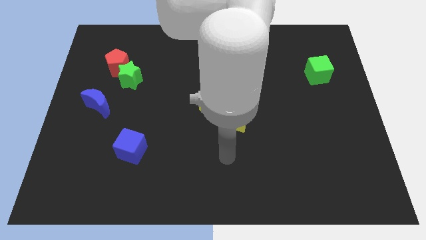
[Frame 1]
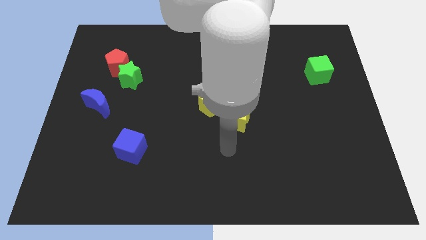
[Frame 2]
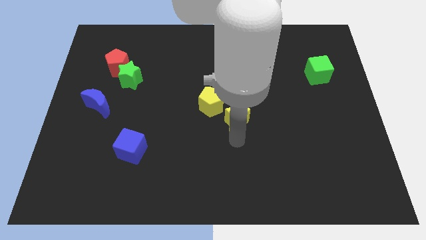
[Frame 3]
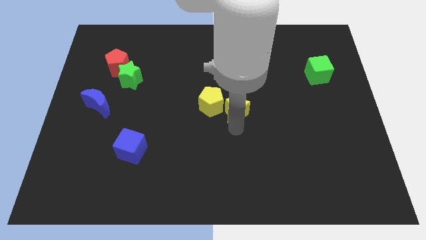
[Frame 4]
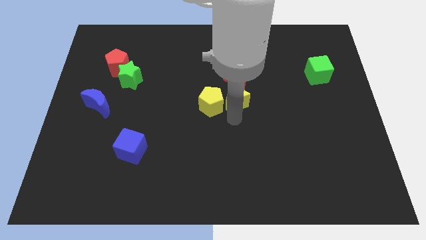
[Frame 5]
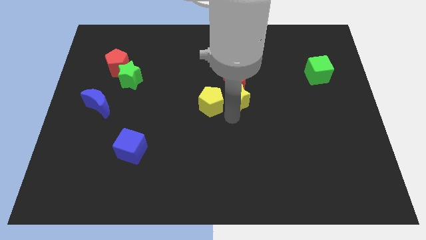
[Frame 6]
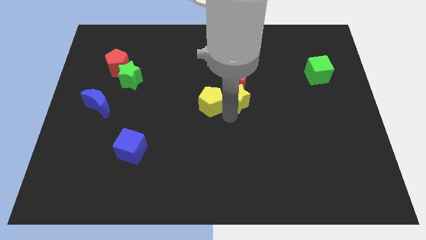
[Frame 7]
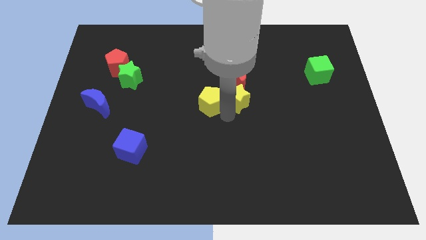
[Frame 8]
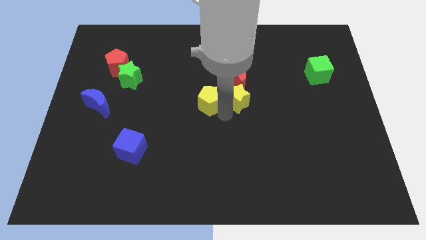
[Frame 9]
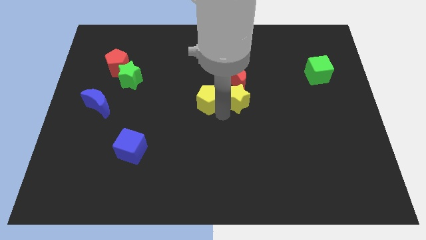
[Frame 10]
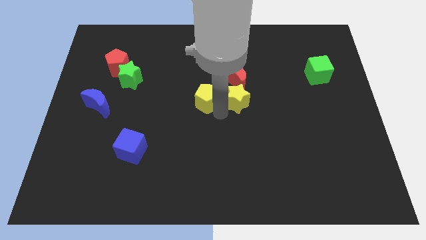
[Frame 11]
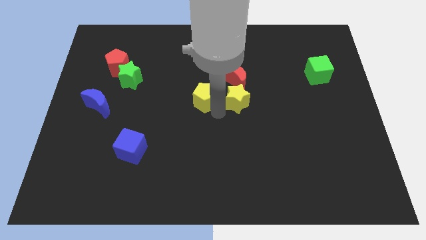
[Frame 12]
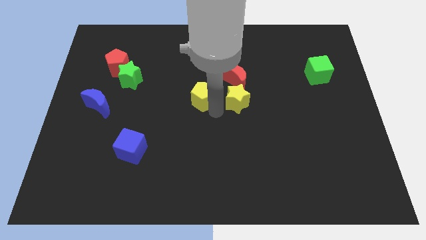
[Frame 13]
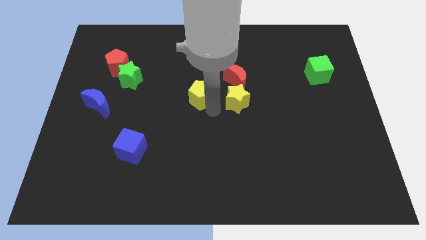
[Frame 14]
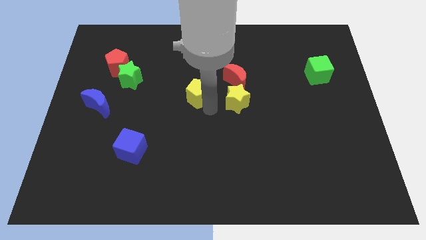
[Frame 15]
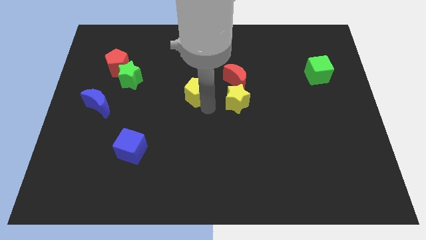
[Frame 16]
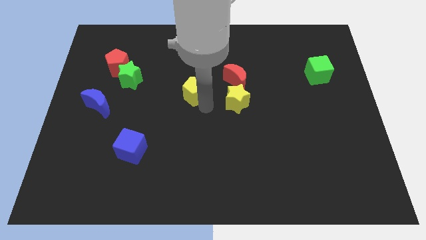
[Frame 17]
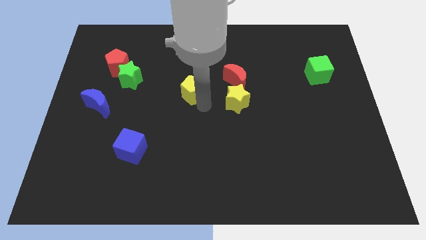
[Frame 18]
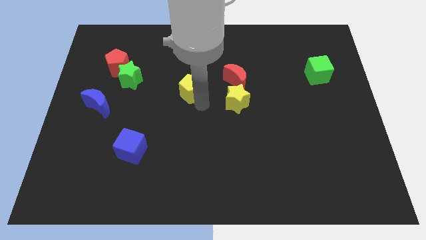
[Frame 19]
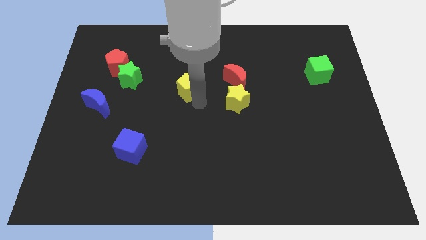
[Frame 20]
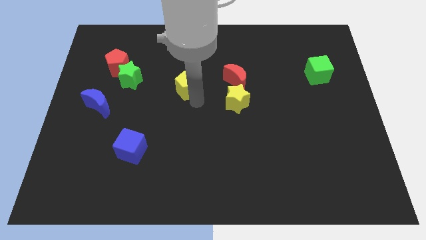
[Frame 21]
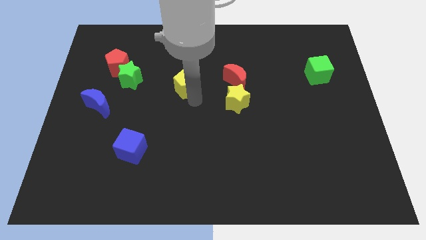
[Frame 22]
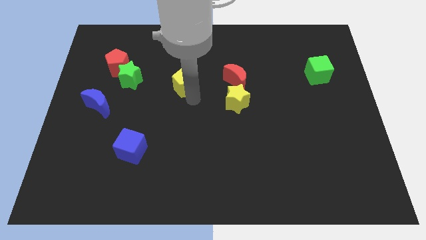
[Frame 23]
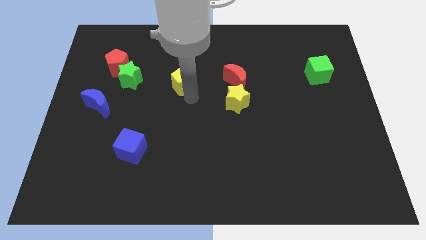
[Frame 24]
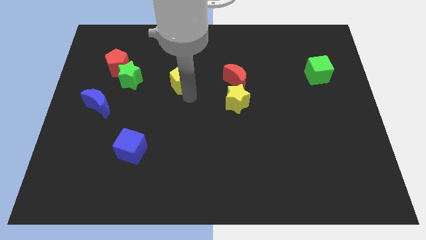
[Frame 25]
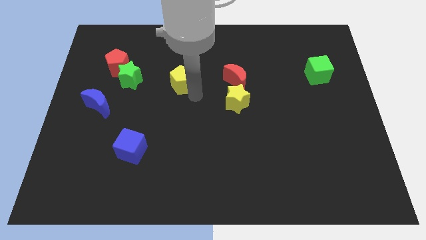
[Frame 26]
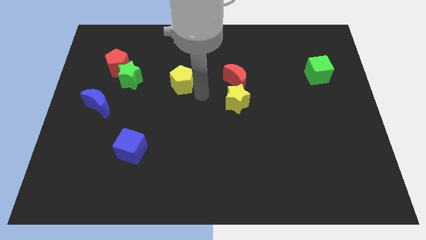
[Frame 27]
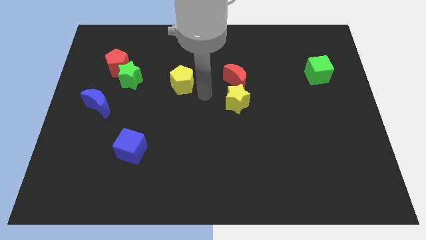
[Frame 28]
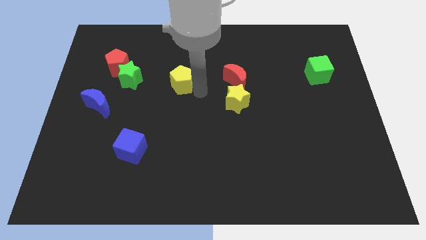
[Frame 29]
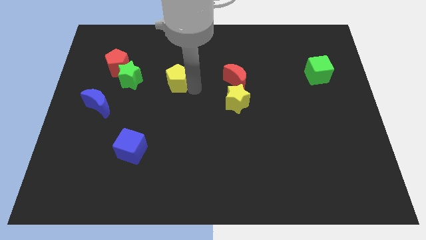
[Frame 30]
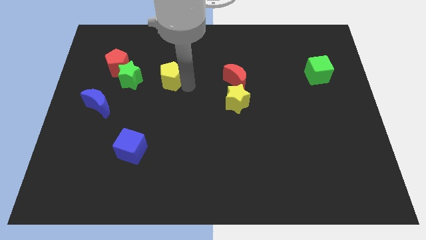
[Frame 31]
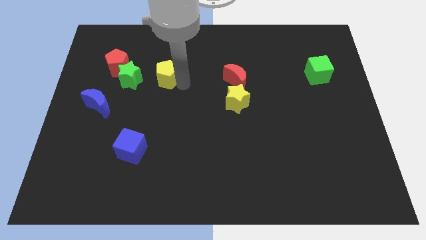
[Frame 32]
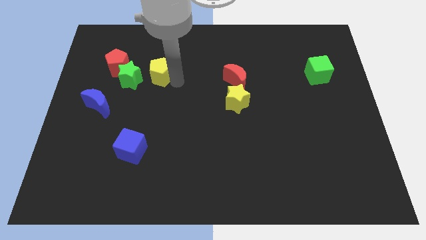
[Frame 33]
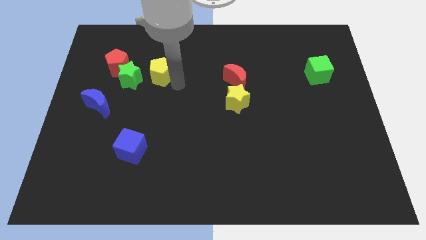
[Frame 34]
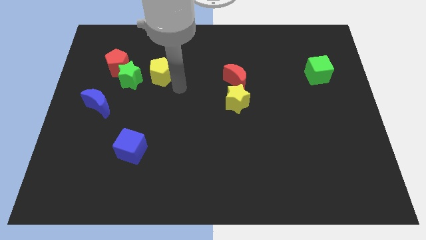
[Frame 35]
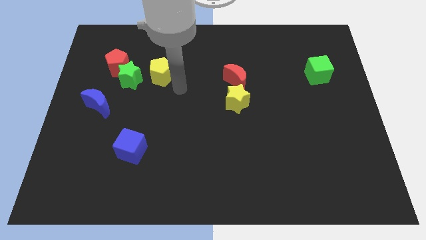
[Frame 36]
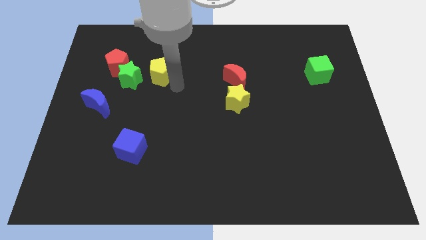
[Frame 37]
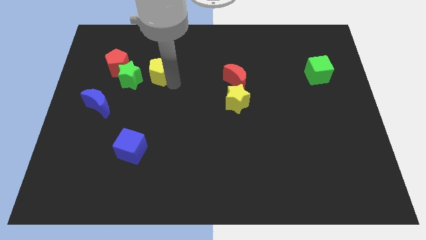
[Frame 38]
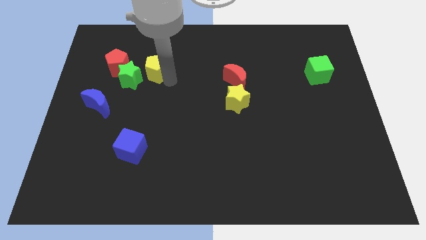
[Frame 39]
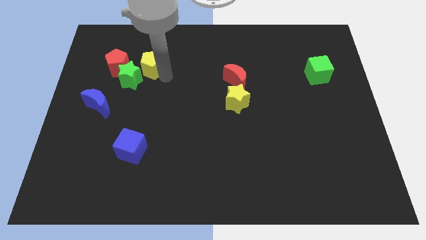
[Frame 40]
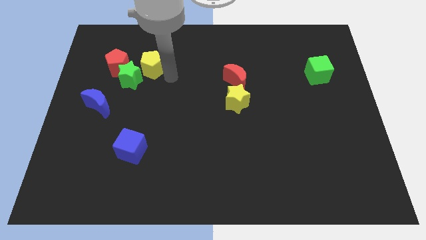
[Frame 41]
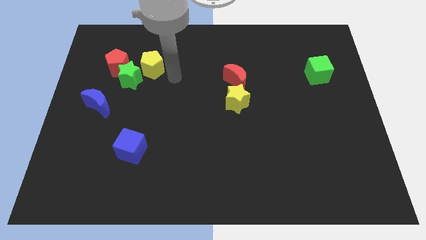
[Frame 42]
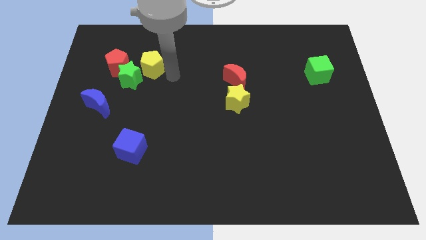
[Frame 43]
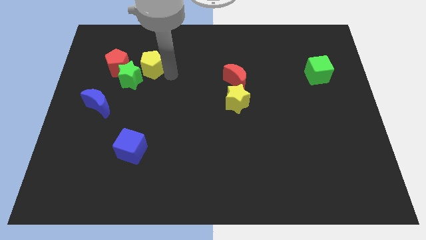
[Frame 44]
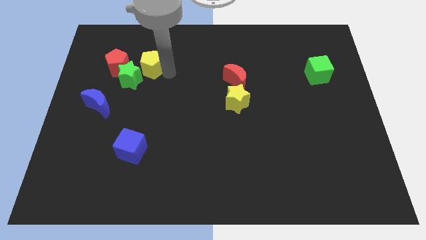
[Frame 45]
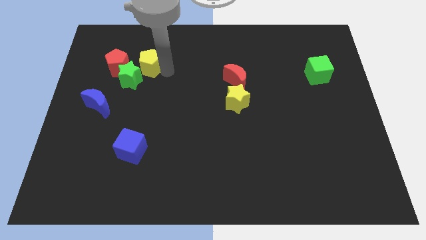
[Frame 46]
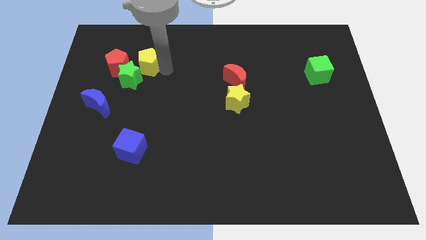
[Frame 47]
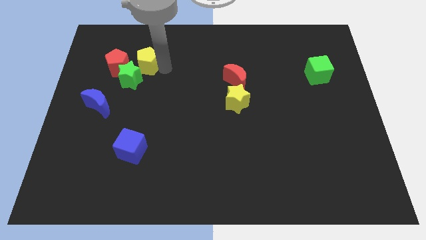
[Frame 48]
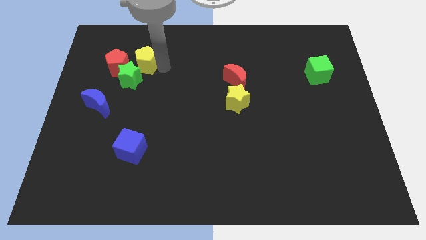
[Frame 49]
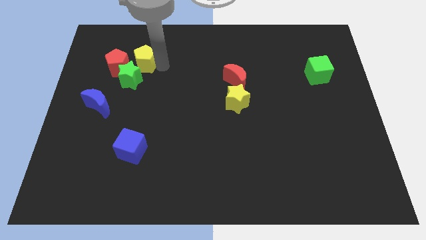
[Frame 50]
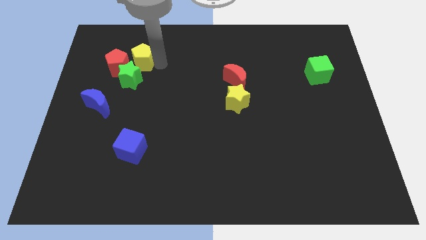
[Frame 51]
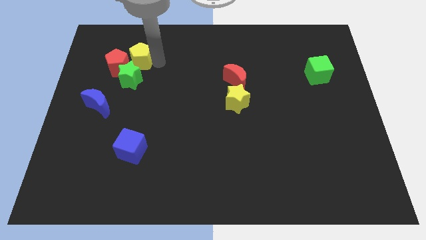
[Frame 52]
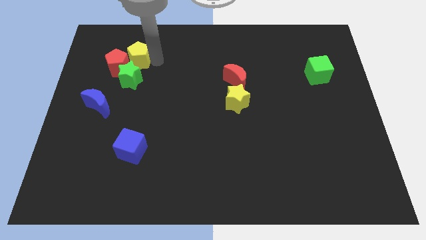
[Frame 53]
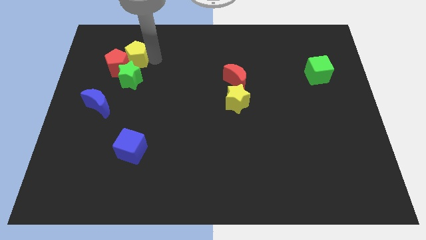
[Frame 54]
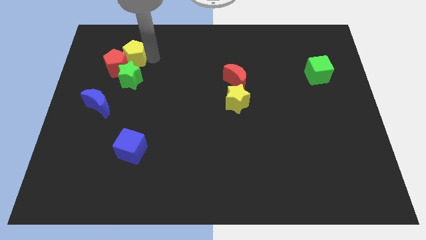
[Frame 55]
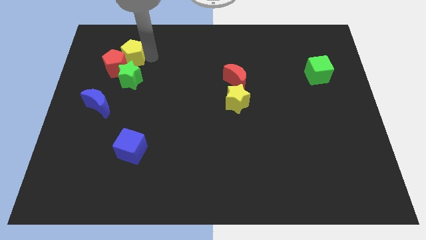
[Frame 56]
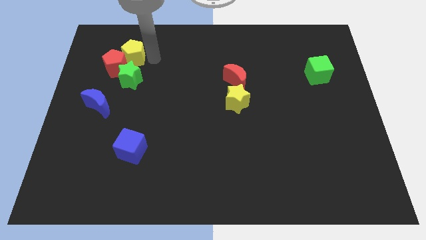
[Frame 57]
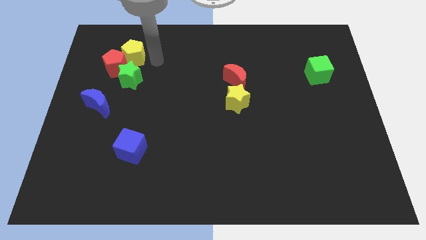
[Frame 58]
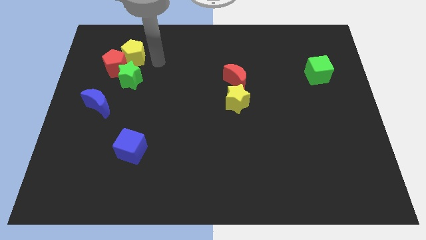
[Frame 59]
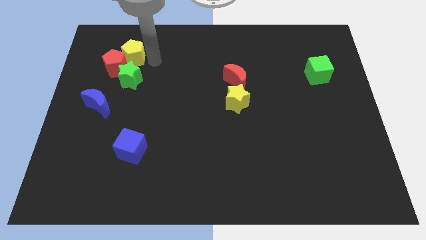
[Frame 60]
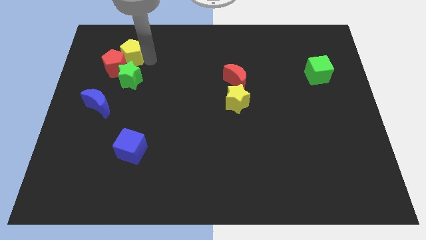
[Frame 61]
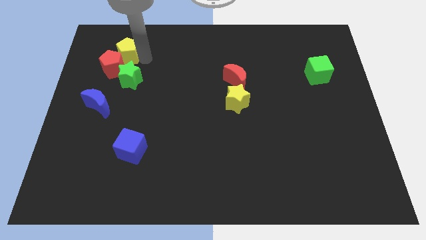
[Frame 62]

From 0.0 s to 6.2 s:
put the yellow pentagon diagonally up and to the left of the green star

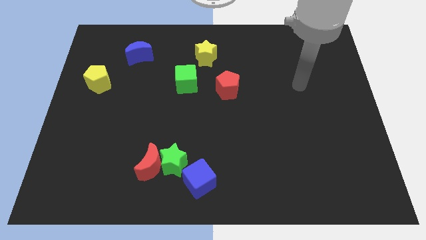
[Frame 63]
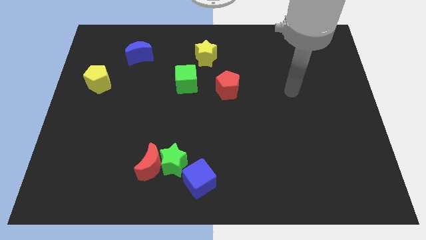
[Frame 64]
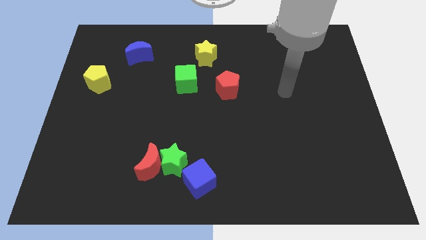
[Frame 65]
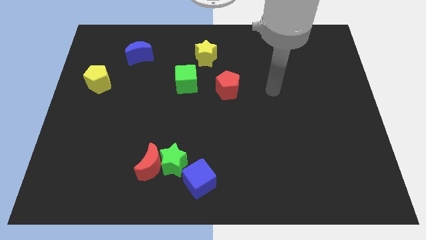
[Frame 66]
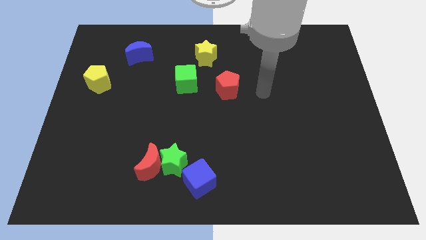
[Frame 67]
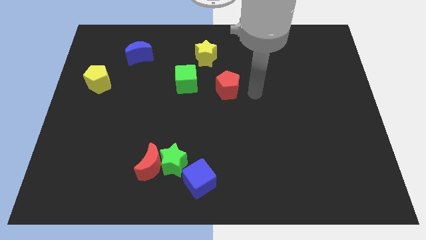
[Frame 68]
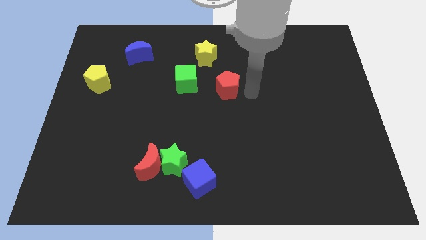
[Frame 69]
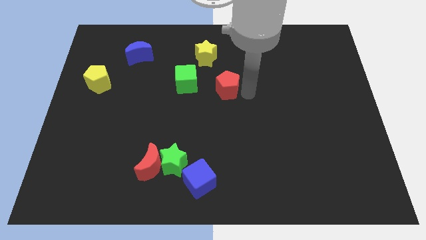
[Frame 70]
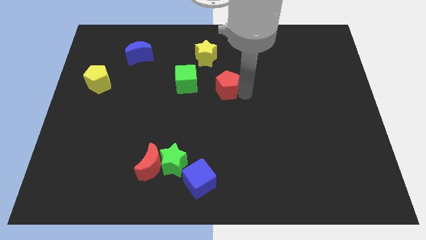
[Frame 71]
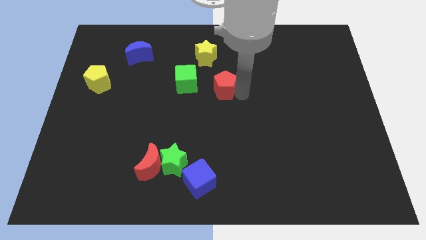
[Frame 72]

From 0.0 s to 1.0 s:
move the red pentagon to the bottom side of the yellow star
